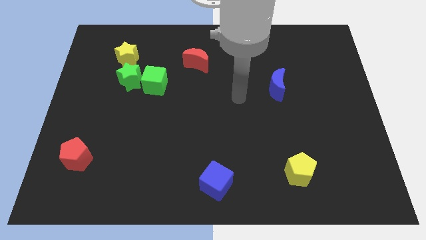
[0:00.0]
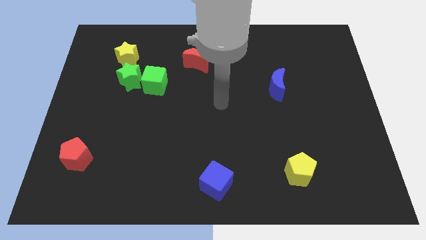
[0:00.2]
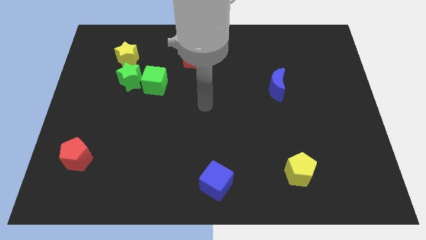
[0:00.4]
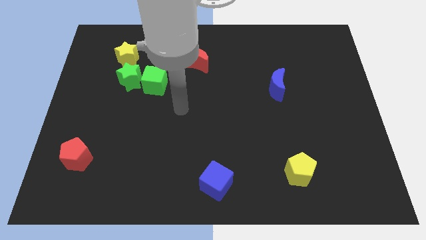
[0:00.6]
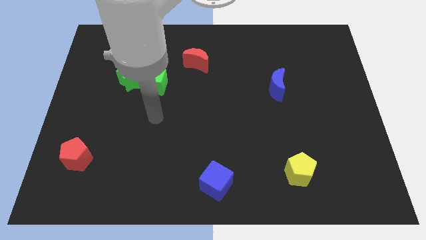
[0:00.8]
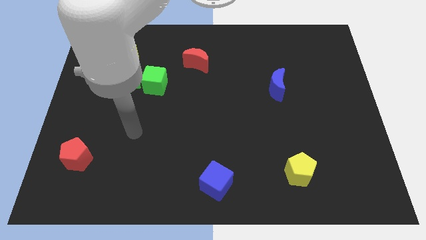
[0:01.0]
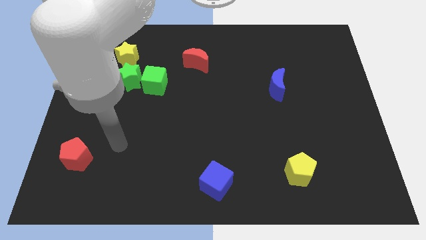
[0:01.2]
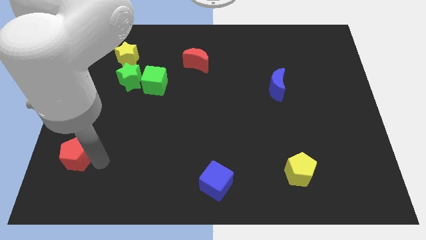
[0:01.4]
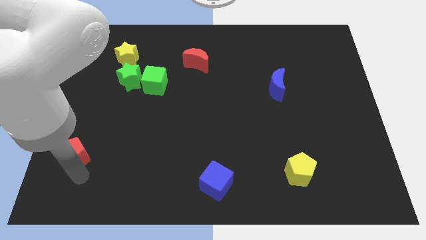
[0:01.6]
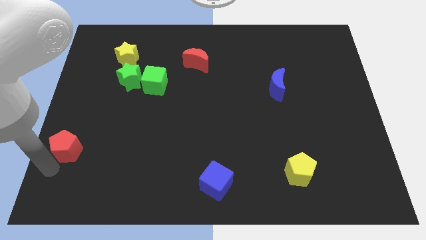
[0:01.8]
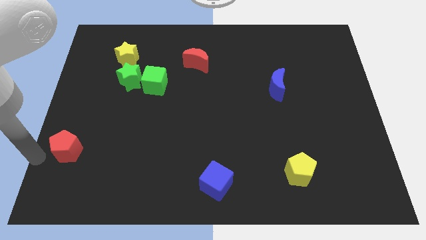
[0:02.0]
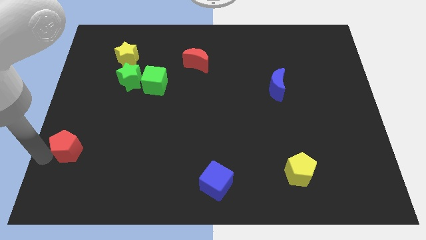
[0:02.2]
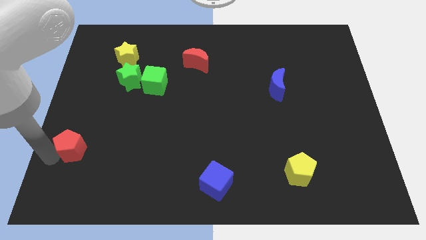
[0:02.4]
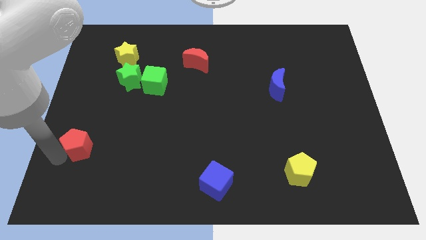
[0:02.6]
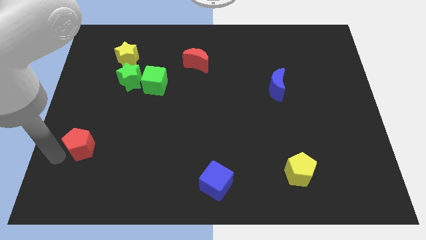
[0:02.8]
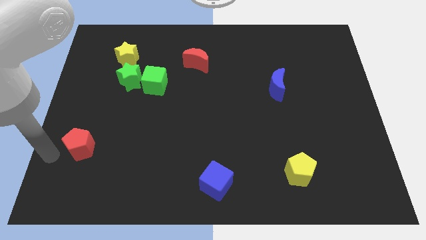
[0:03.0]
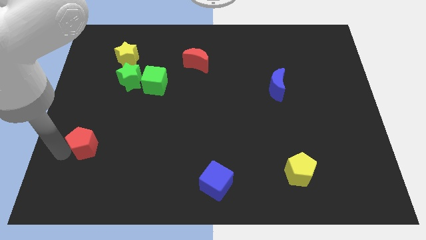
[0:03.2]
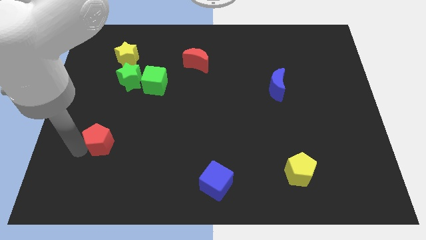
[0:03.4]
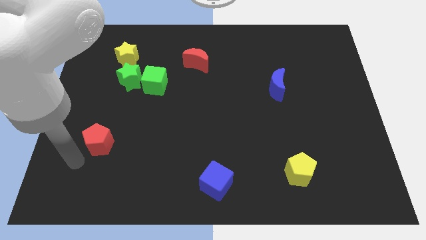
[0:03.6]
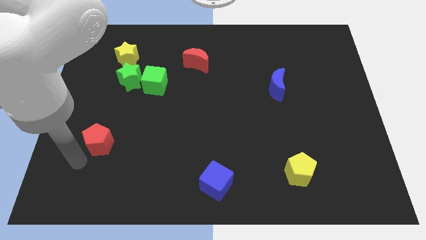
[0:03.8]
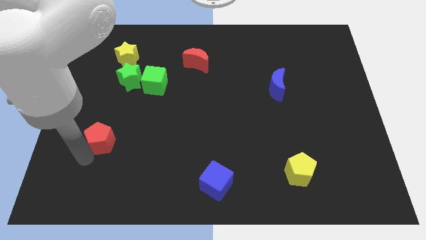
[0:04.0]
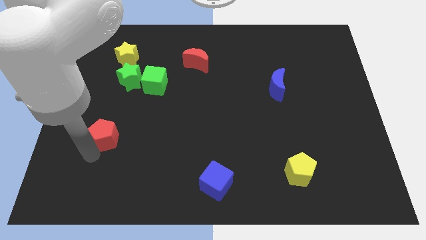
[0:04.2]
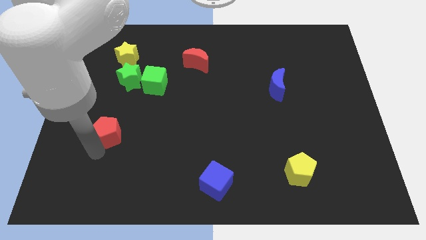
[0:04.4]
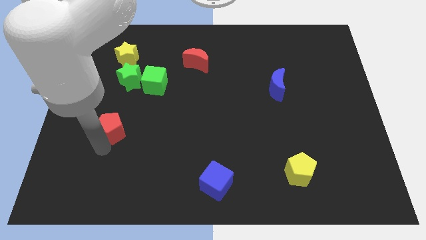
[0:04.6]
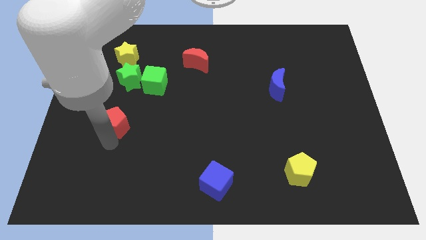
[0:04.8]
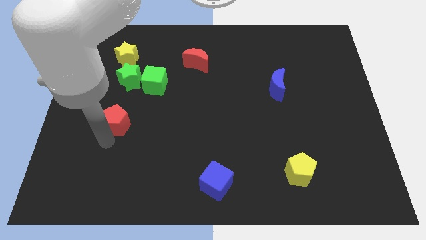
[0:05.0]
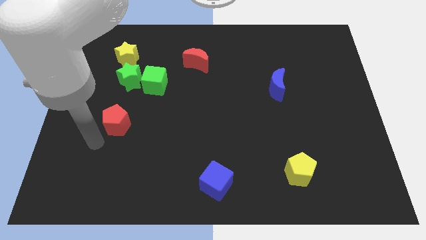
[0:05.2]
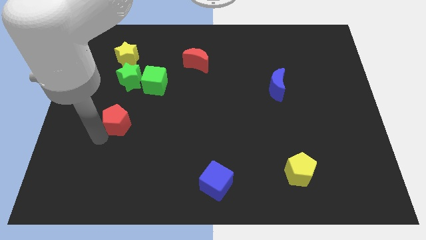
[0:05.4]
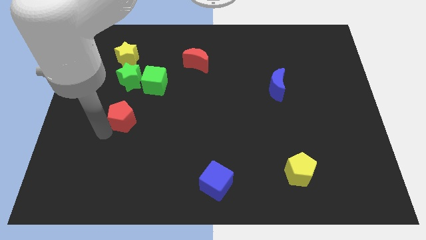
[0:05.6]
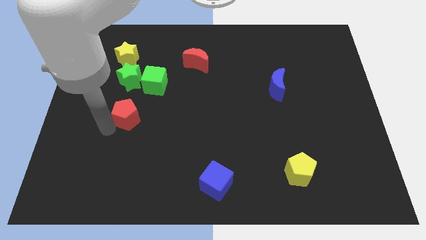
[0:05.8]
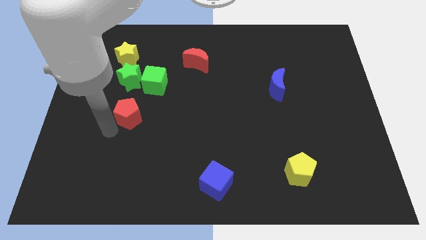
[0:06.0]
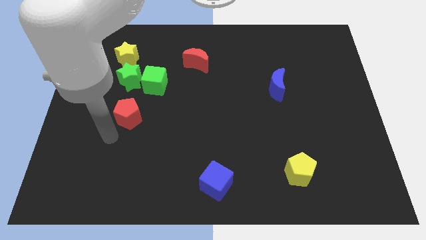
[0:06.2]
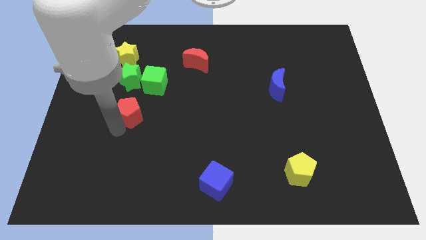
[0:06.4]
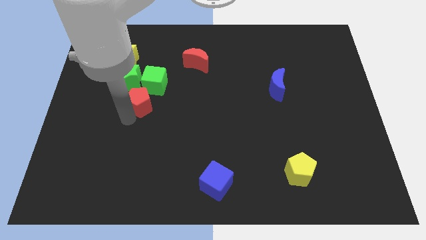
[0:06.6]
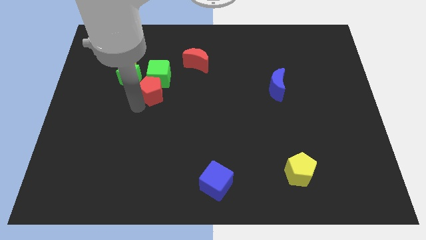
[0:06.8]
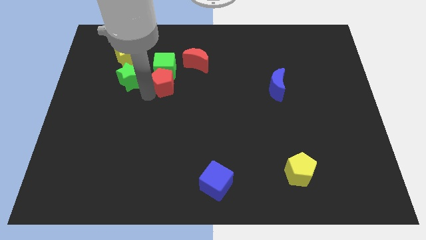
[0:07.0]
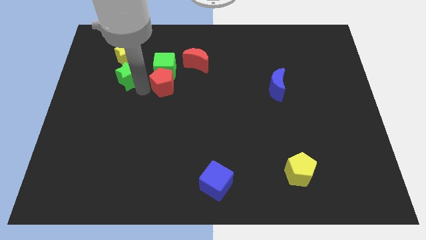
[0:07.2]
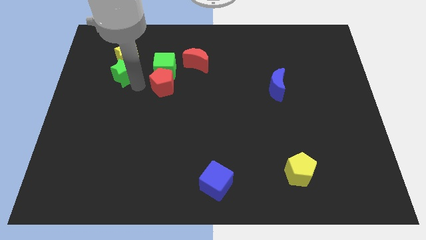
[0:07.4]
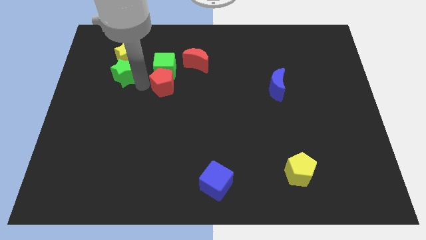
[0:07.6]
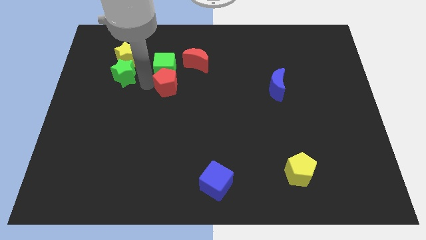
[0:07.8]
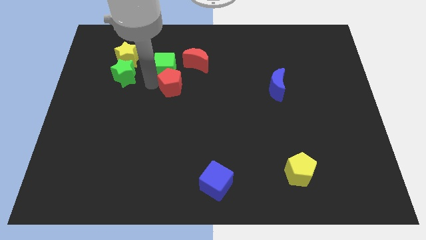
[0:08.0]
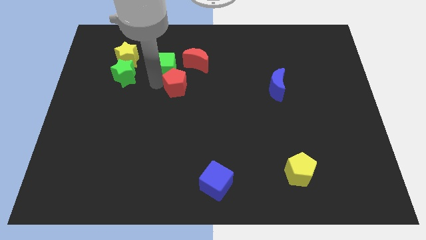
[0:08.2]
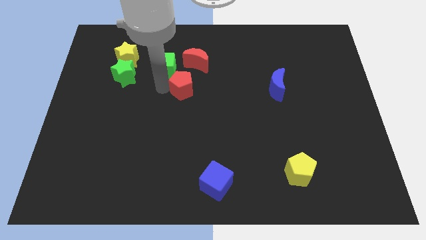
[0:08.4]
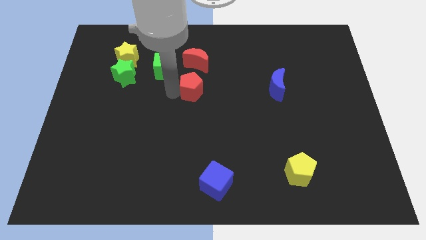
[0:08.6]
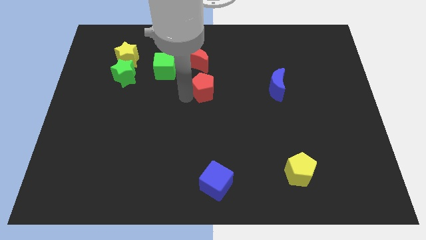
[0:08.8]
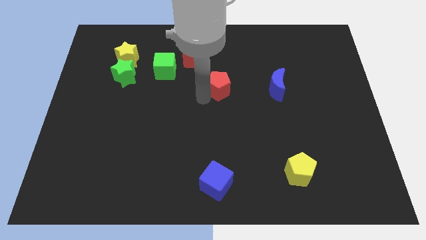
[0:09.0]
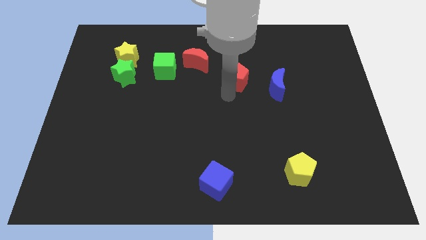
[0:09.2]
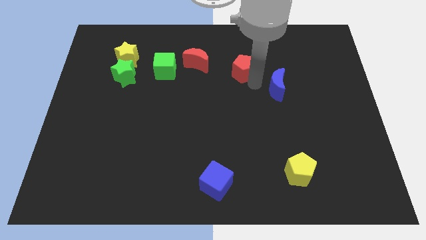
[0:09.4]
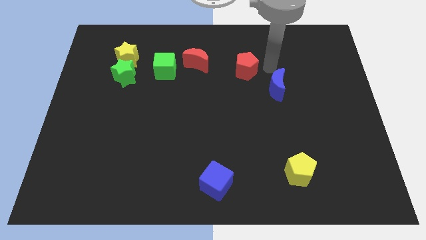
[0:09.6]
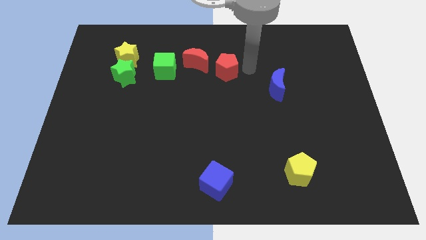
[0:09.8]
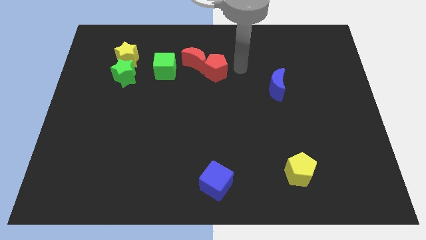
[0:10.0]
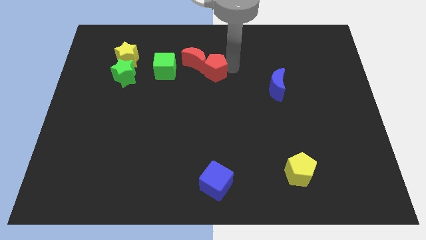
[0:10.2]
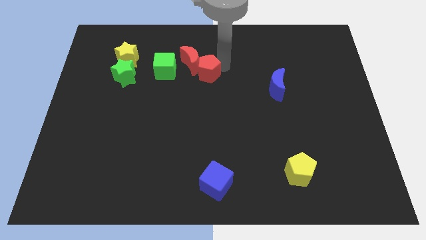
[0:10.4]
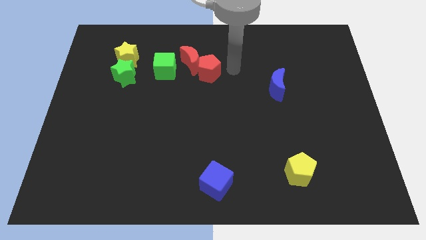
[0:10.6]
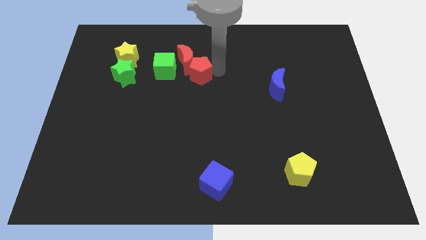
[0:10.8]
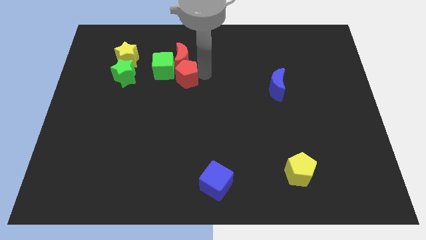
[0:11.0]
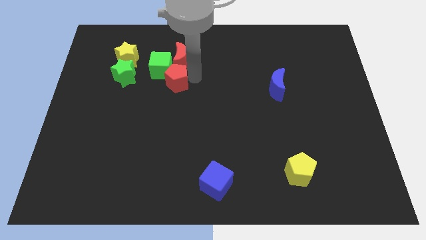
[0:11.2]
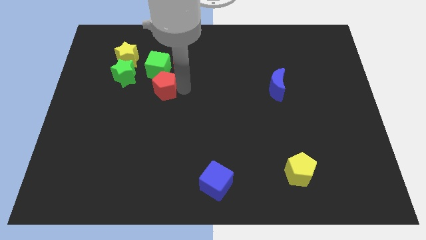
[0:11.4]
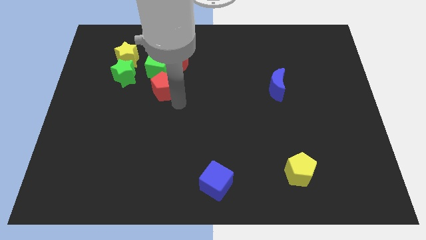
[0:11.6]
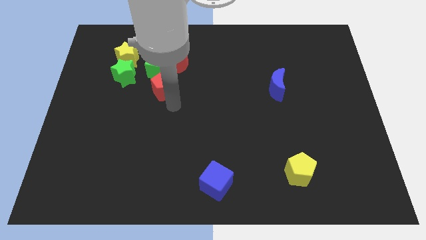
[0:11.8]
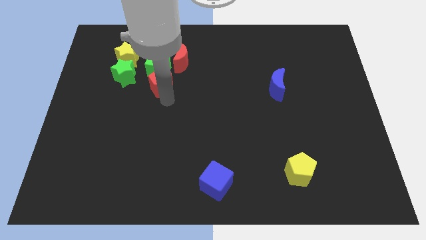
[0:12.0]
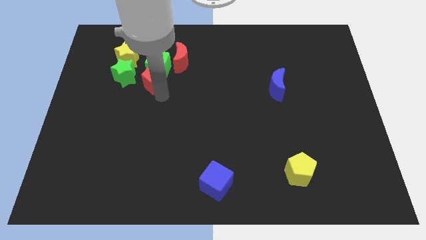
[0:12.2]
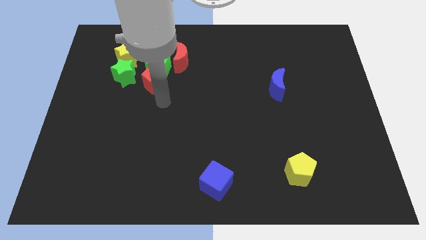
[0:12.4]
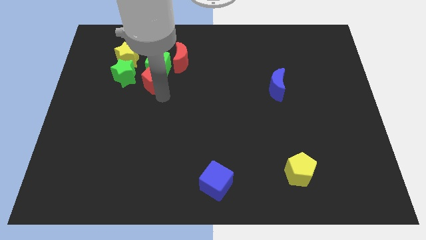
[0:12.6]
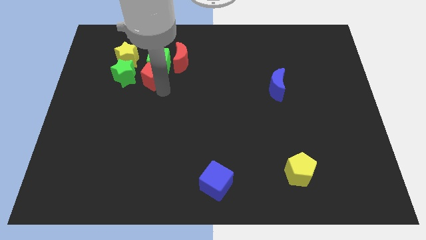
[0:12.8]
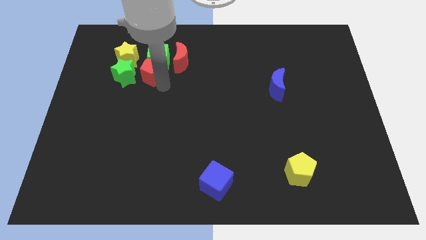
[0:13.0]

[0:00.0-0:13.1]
slide the red pentagon to the top right of the green star

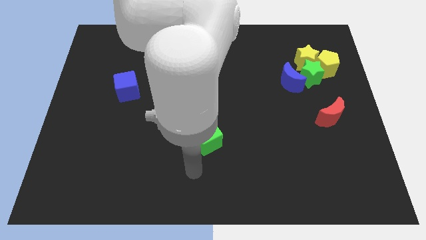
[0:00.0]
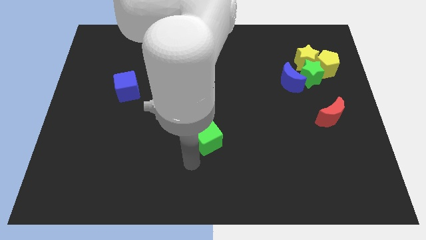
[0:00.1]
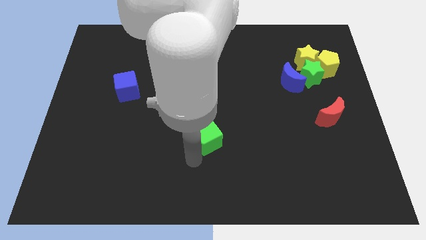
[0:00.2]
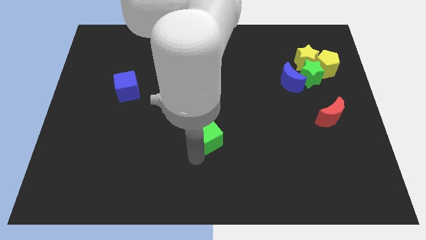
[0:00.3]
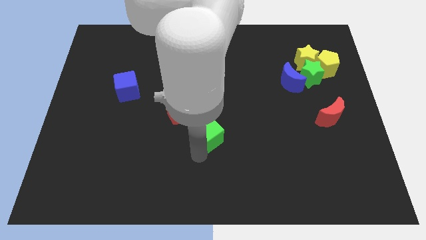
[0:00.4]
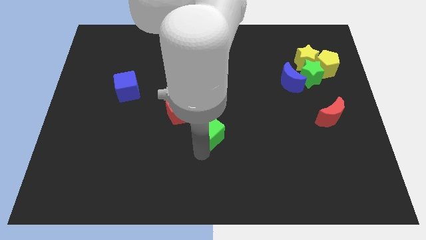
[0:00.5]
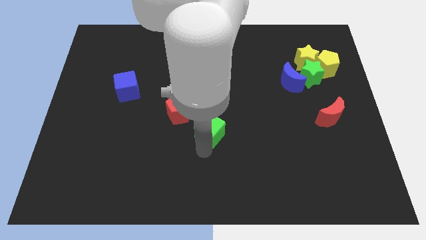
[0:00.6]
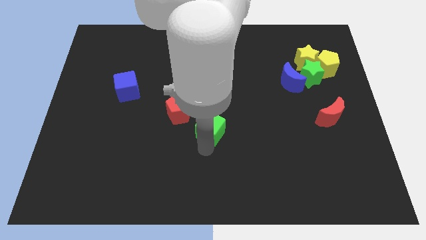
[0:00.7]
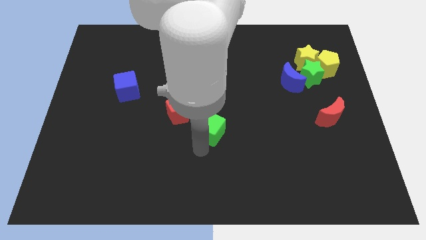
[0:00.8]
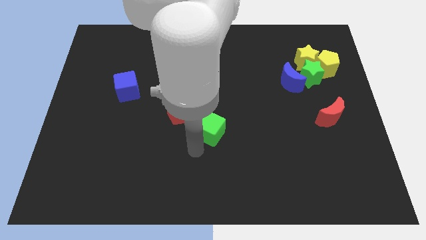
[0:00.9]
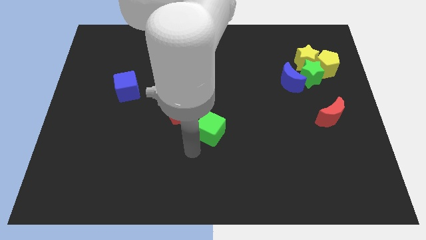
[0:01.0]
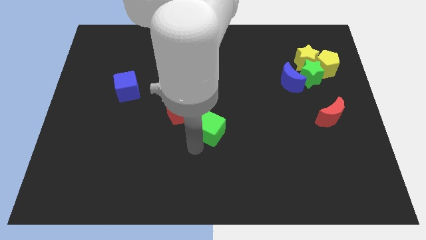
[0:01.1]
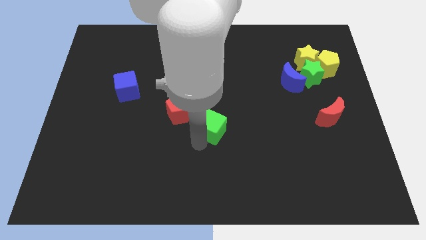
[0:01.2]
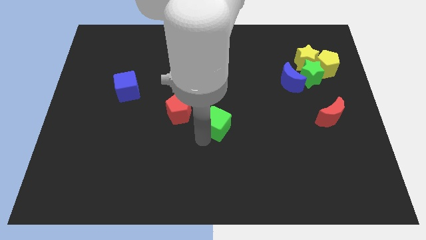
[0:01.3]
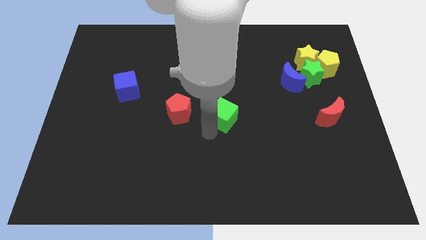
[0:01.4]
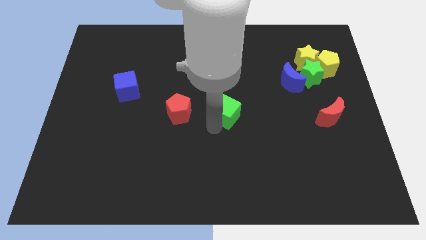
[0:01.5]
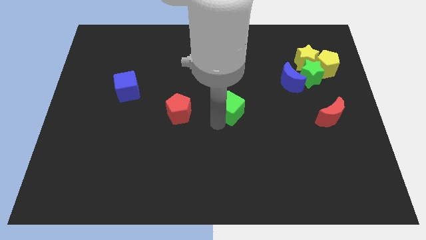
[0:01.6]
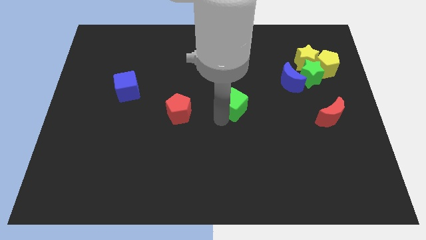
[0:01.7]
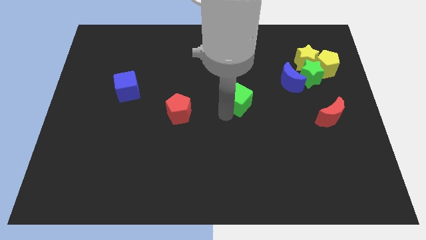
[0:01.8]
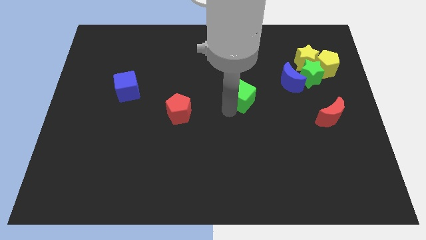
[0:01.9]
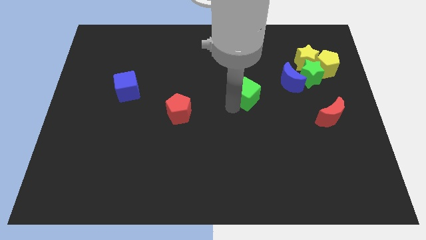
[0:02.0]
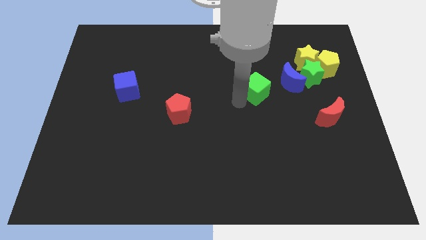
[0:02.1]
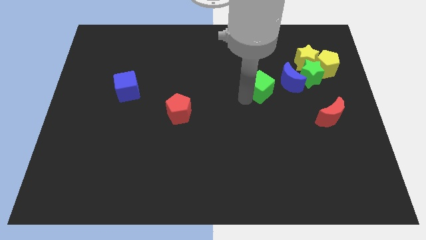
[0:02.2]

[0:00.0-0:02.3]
slide the green cube left of the green star
